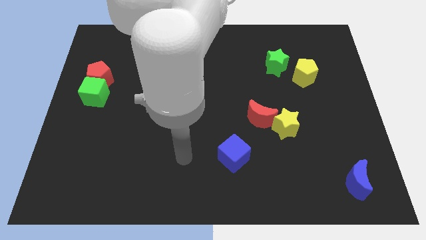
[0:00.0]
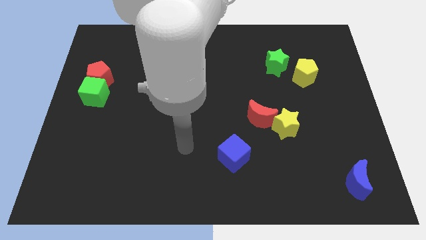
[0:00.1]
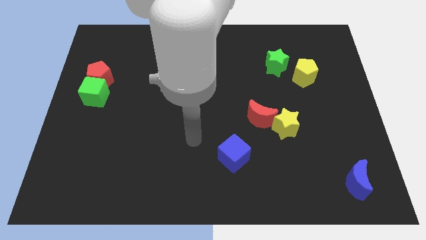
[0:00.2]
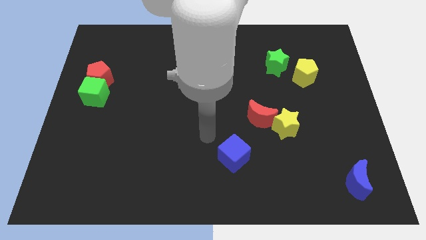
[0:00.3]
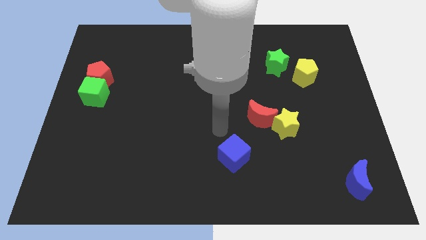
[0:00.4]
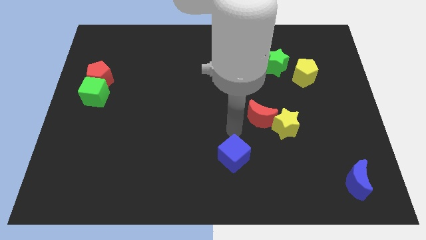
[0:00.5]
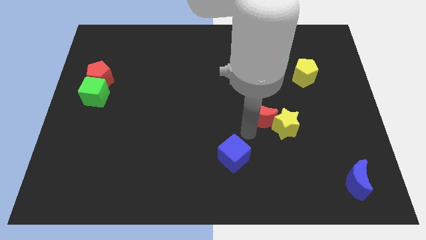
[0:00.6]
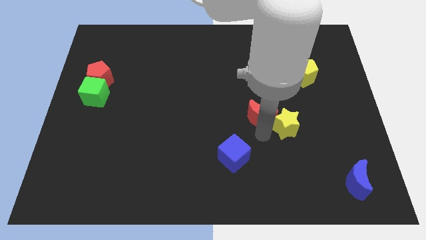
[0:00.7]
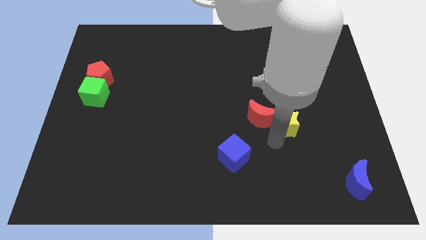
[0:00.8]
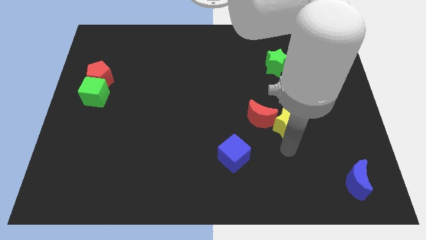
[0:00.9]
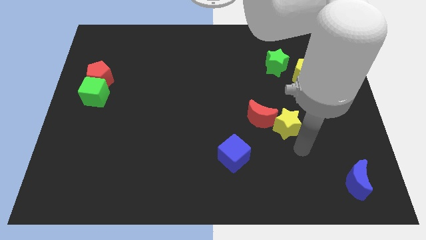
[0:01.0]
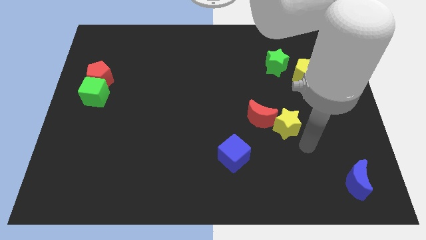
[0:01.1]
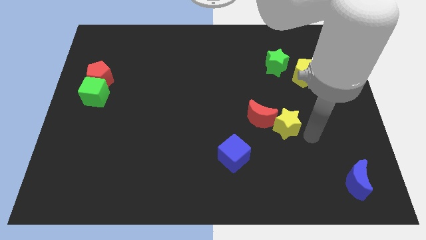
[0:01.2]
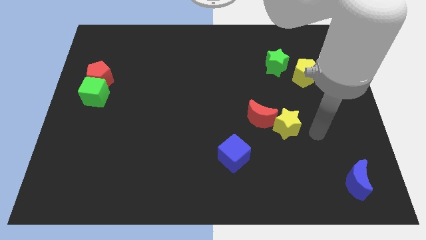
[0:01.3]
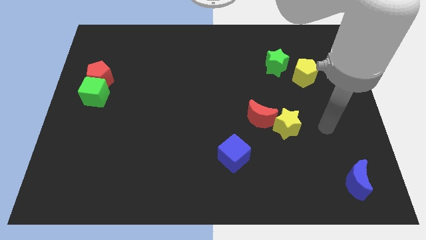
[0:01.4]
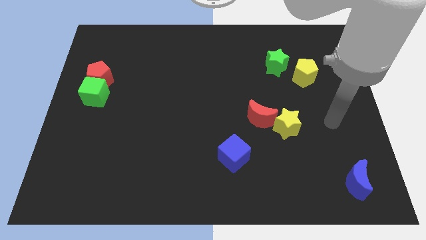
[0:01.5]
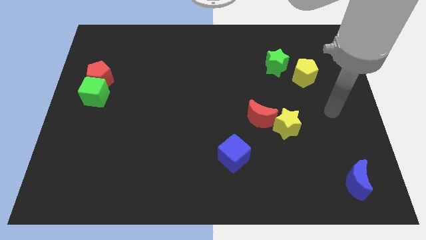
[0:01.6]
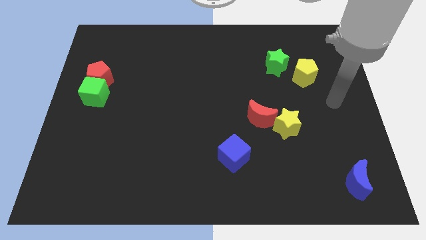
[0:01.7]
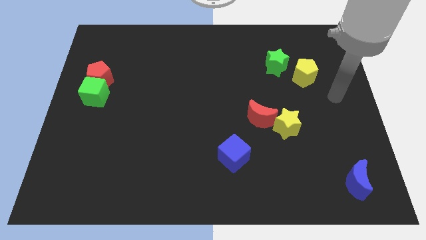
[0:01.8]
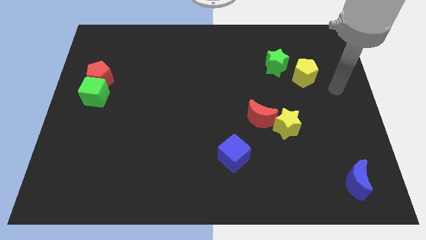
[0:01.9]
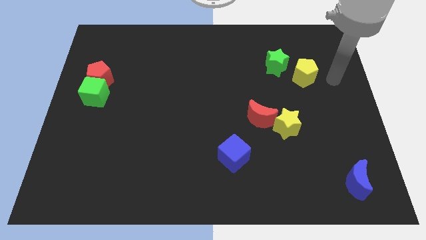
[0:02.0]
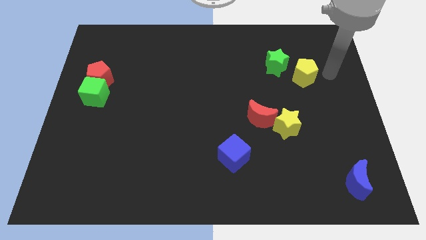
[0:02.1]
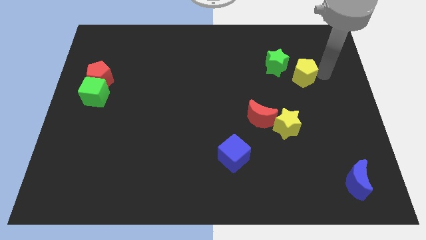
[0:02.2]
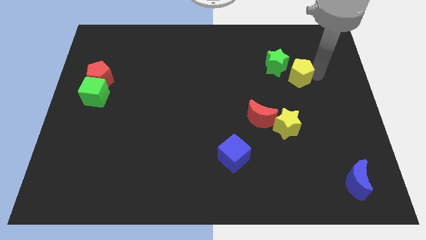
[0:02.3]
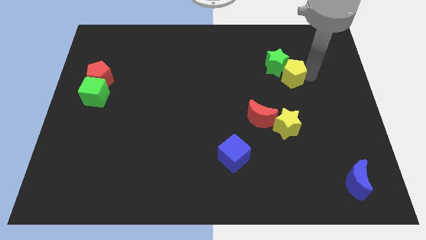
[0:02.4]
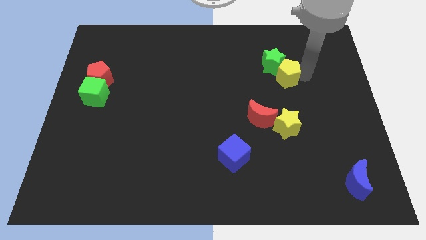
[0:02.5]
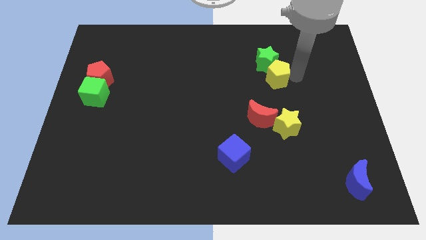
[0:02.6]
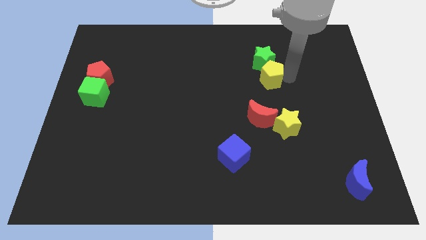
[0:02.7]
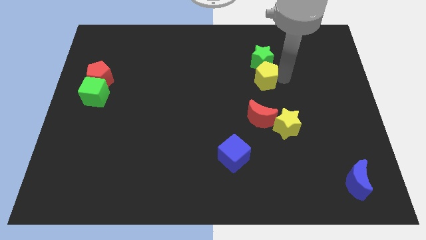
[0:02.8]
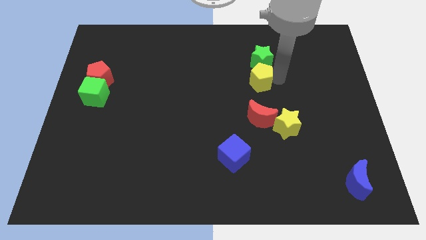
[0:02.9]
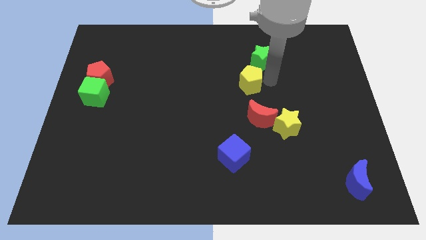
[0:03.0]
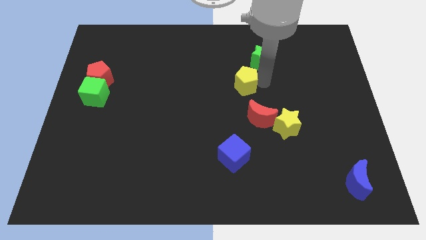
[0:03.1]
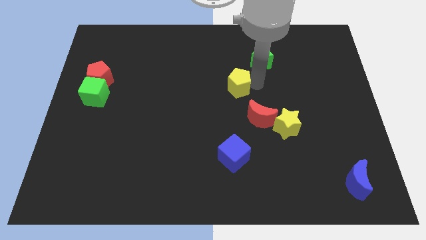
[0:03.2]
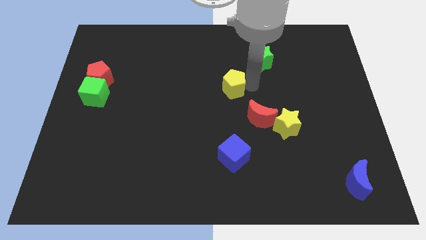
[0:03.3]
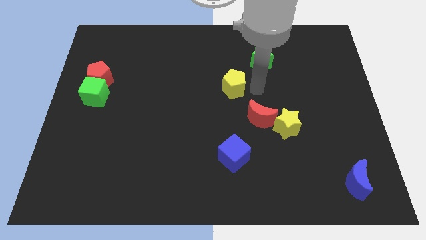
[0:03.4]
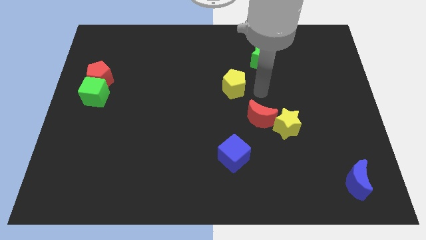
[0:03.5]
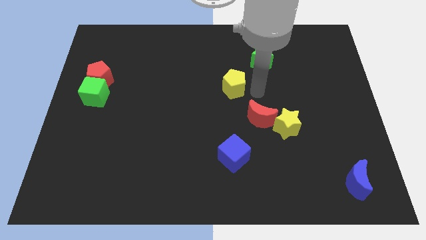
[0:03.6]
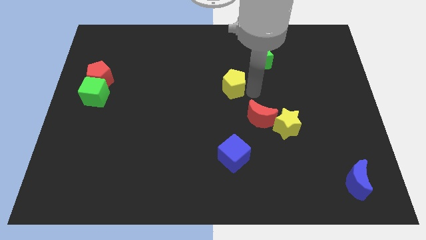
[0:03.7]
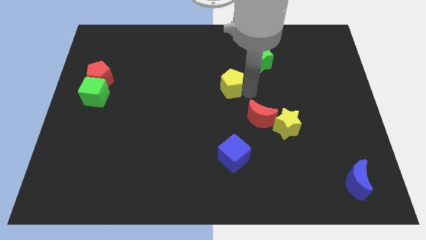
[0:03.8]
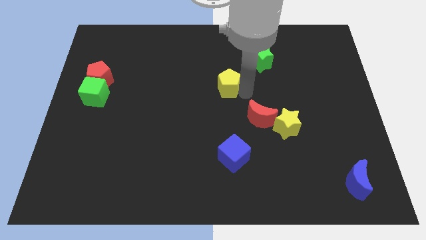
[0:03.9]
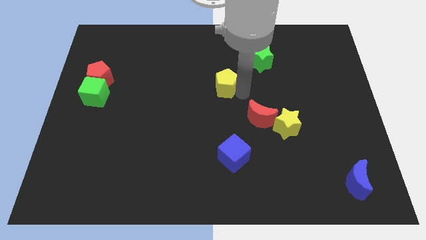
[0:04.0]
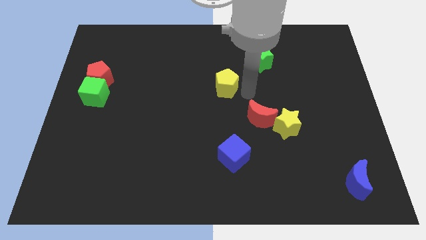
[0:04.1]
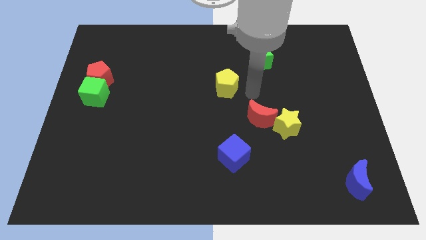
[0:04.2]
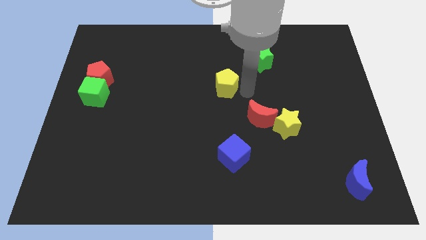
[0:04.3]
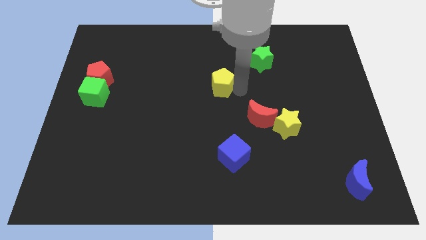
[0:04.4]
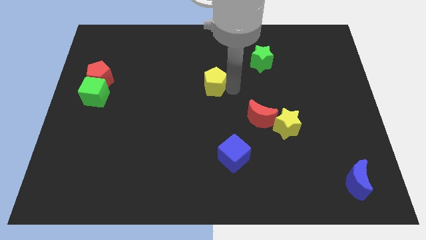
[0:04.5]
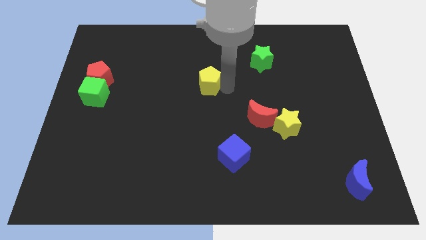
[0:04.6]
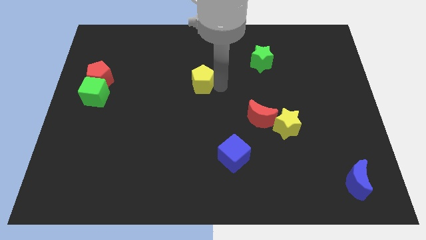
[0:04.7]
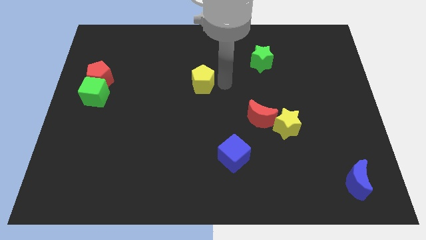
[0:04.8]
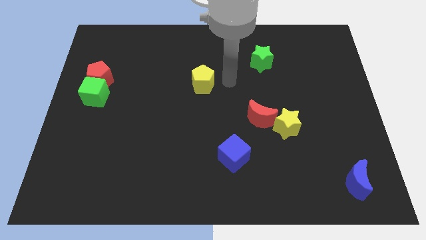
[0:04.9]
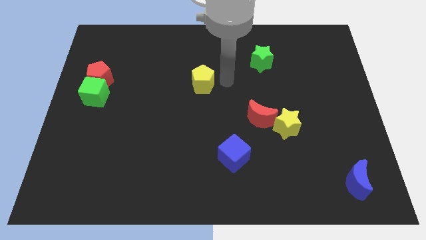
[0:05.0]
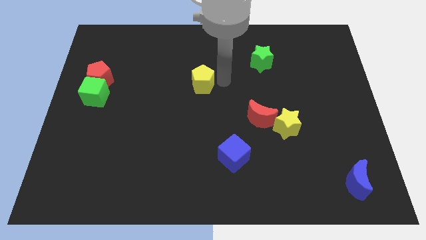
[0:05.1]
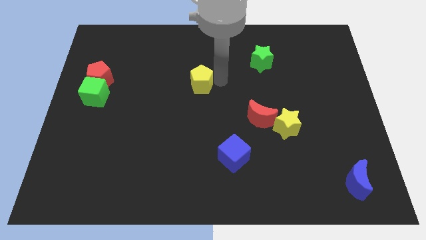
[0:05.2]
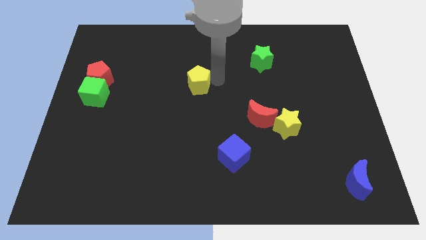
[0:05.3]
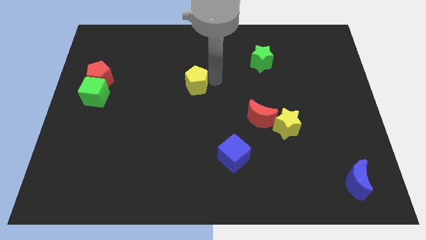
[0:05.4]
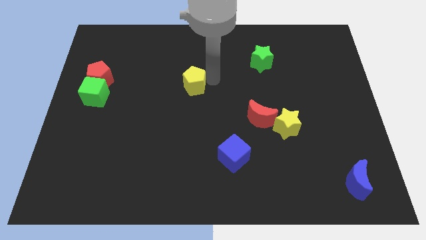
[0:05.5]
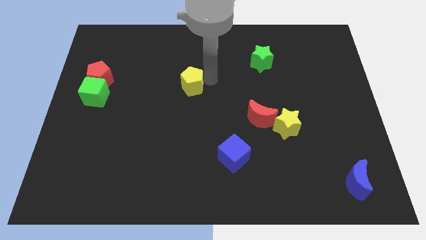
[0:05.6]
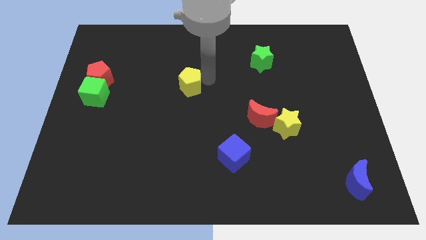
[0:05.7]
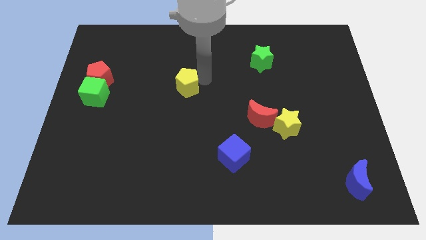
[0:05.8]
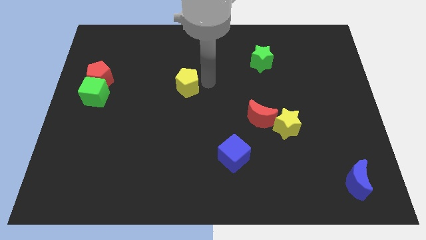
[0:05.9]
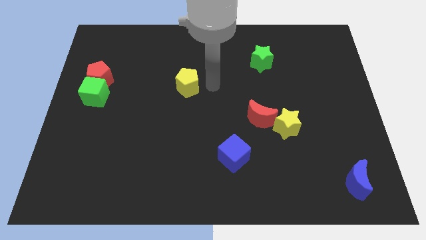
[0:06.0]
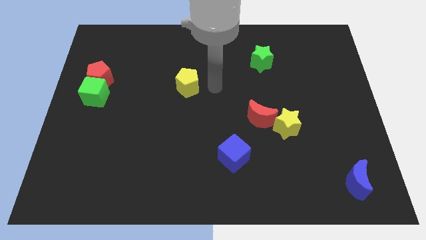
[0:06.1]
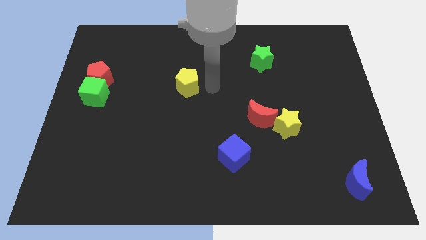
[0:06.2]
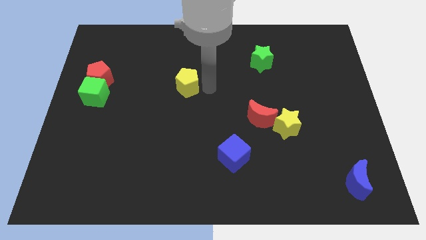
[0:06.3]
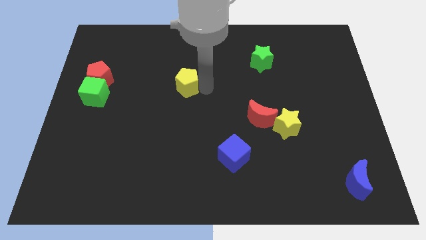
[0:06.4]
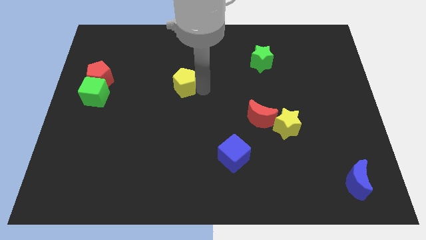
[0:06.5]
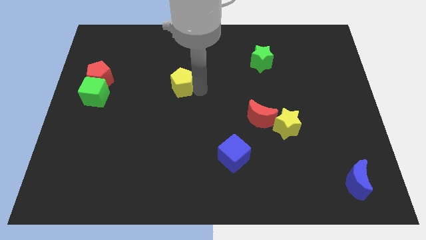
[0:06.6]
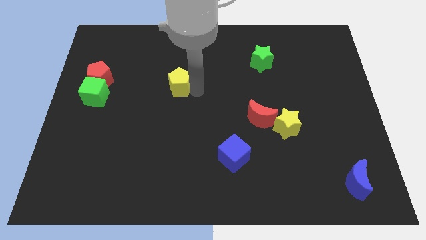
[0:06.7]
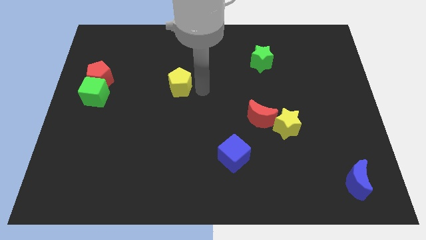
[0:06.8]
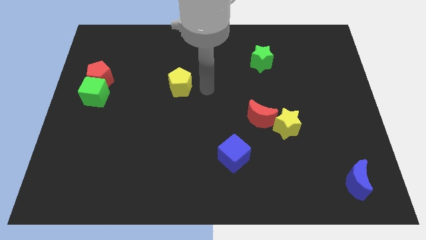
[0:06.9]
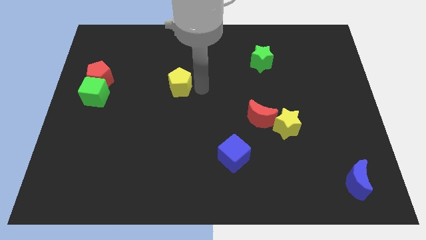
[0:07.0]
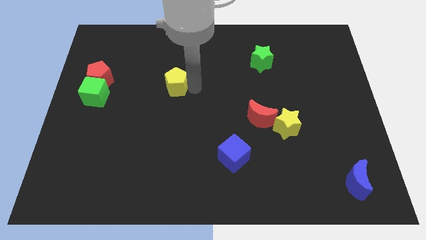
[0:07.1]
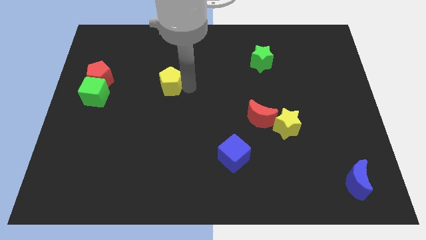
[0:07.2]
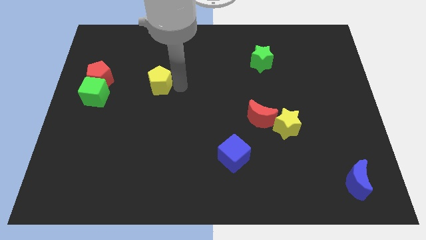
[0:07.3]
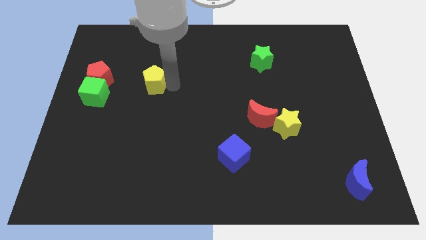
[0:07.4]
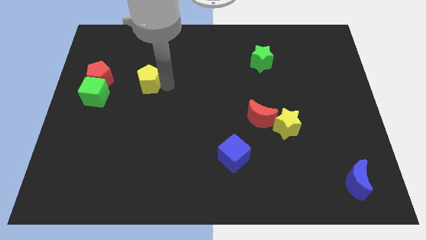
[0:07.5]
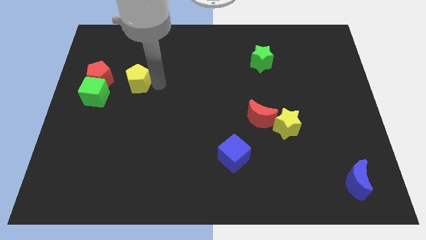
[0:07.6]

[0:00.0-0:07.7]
move the yellow pentagon to the top right of the green cube
